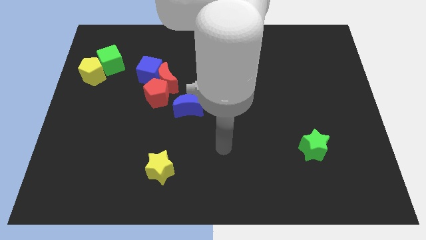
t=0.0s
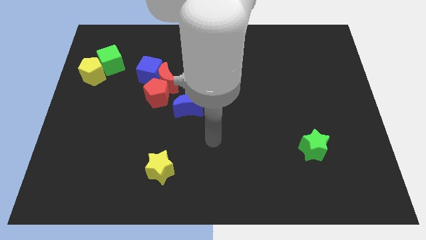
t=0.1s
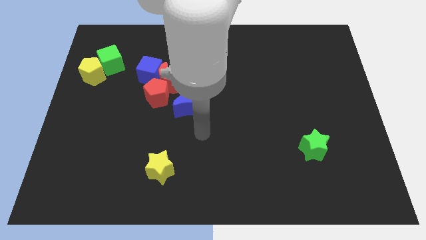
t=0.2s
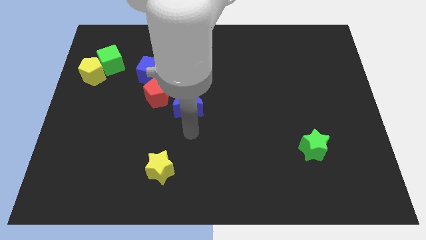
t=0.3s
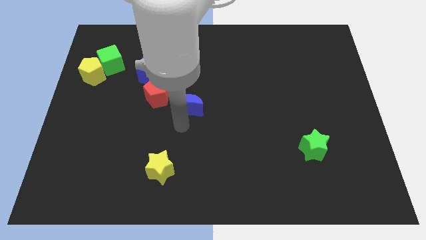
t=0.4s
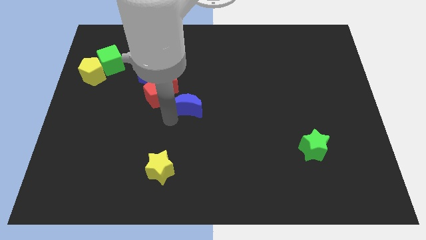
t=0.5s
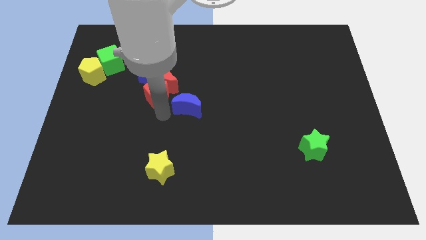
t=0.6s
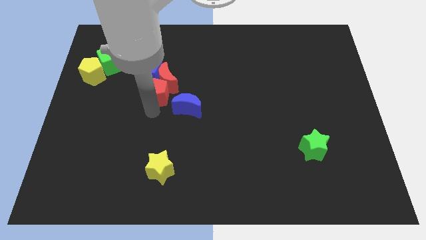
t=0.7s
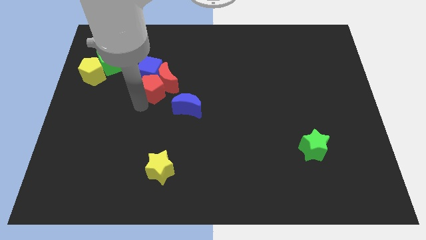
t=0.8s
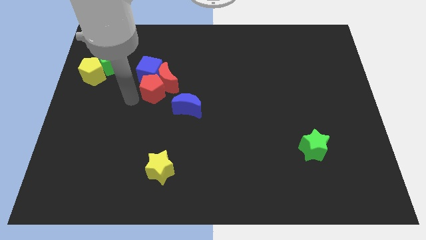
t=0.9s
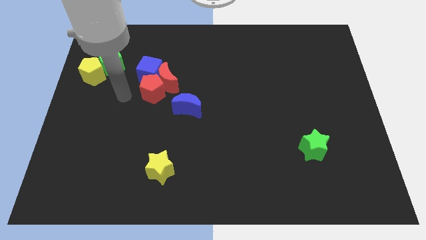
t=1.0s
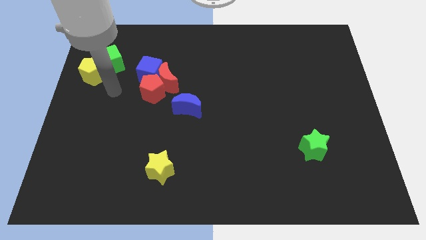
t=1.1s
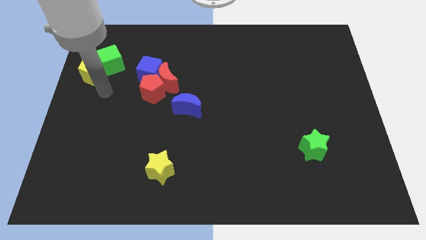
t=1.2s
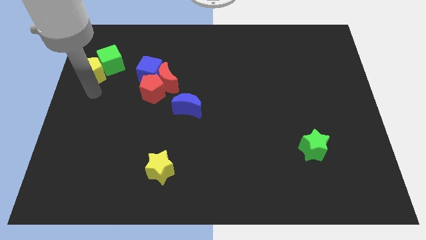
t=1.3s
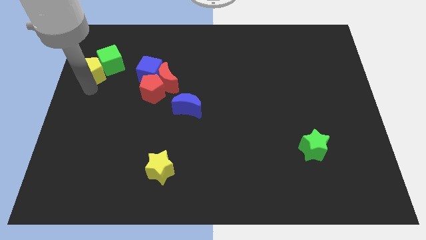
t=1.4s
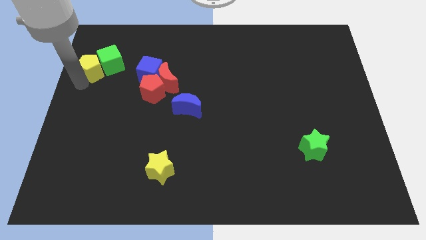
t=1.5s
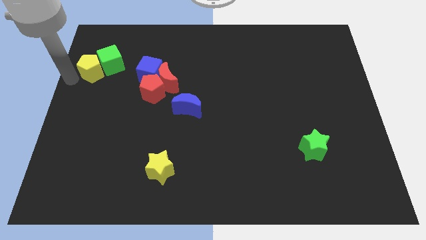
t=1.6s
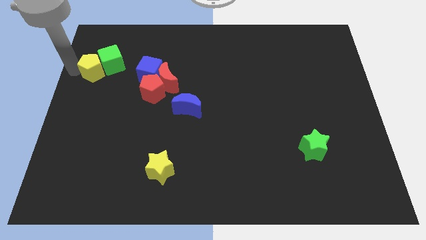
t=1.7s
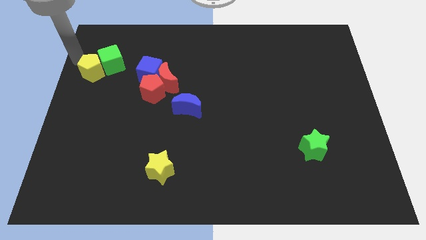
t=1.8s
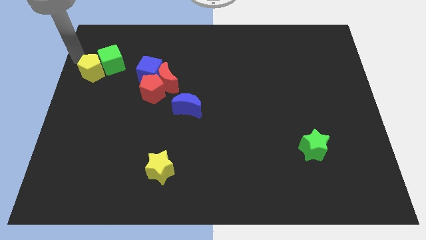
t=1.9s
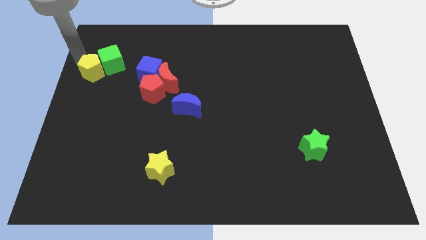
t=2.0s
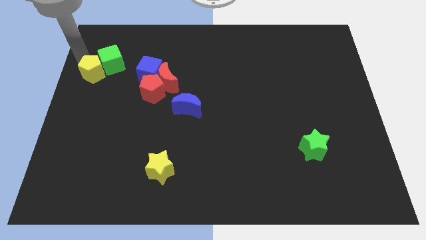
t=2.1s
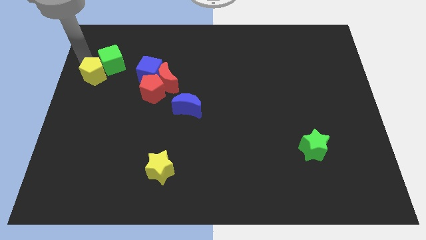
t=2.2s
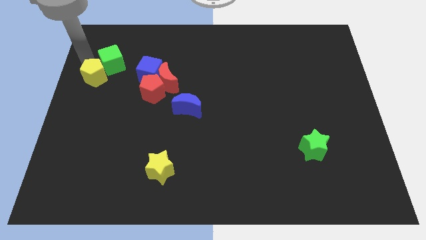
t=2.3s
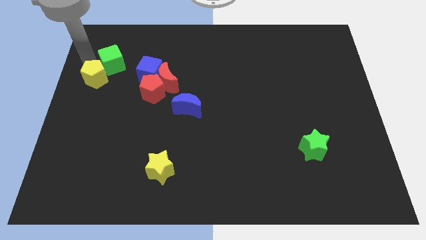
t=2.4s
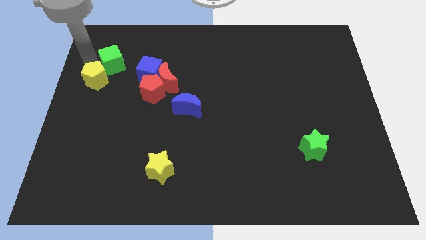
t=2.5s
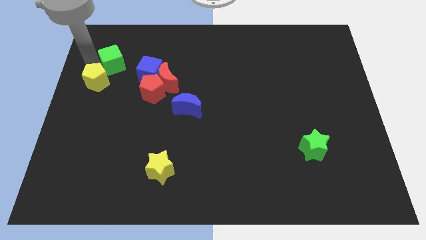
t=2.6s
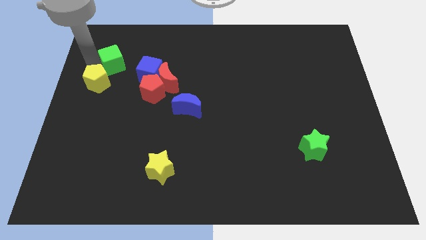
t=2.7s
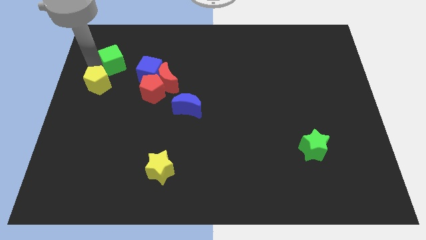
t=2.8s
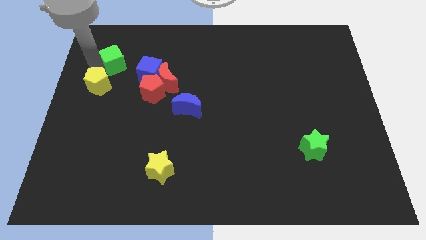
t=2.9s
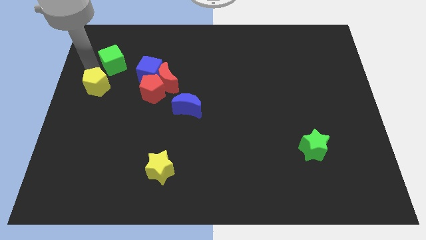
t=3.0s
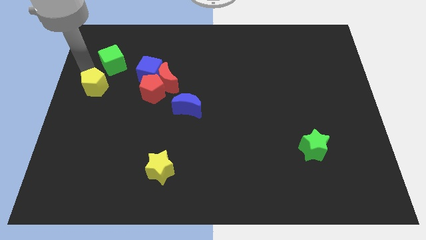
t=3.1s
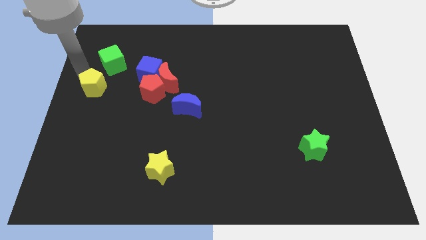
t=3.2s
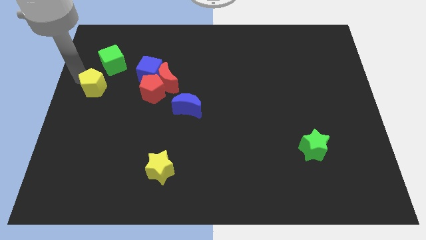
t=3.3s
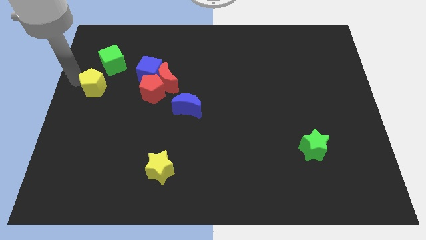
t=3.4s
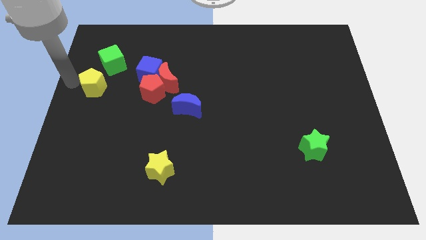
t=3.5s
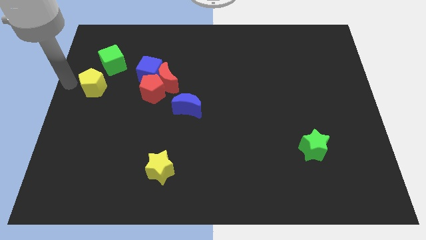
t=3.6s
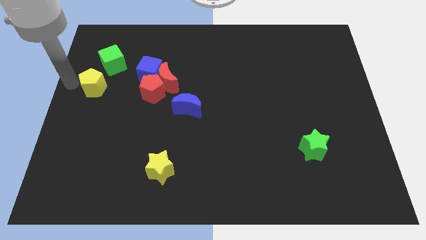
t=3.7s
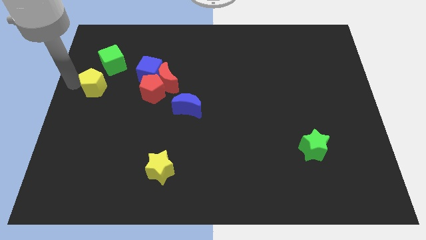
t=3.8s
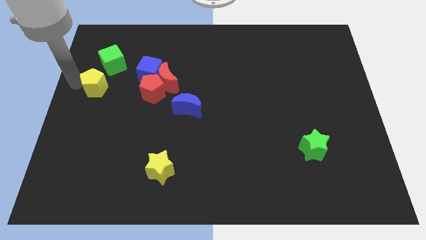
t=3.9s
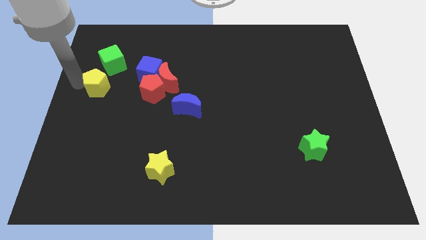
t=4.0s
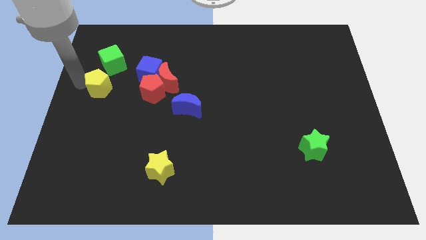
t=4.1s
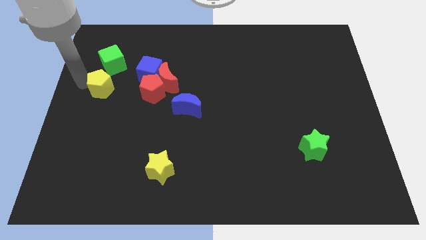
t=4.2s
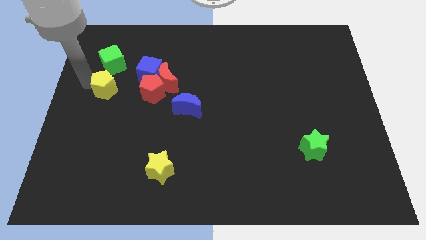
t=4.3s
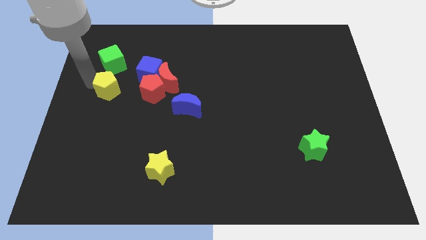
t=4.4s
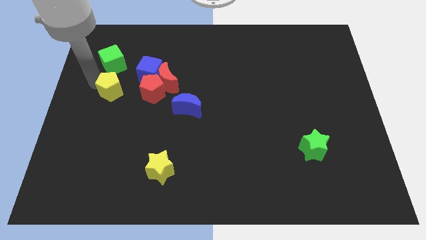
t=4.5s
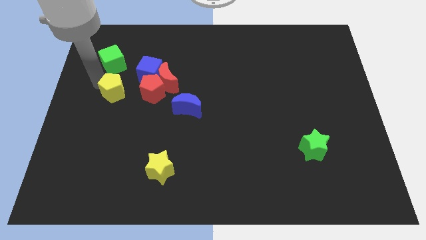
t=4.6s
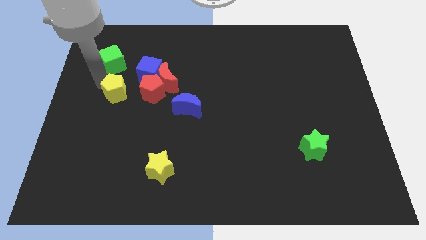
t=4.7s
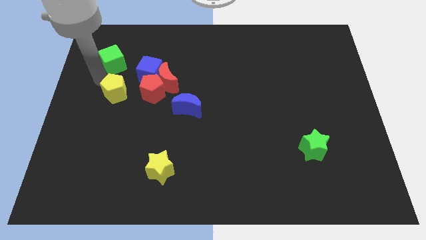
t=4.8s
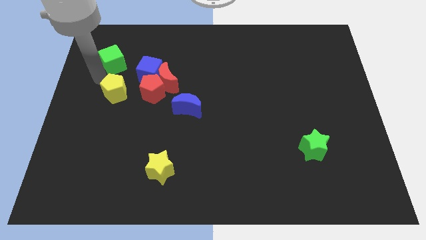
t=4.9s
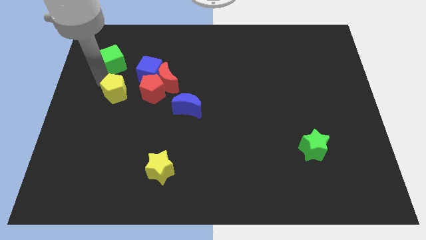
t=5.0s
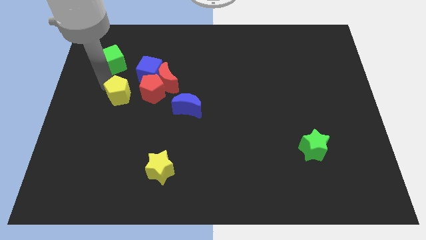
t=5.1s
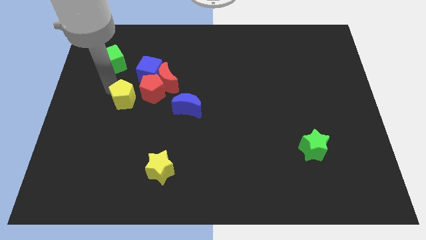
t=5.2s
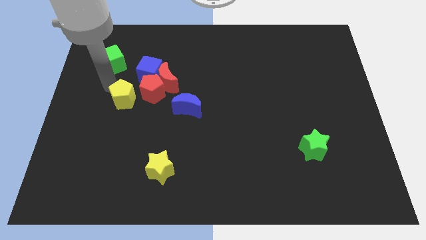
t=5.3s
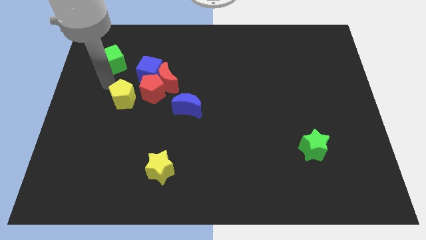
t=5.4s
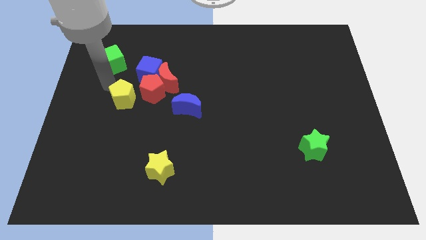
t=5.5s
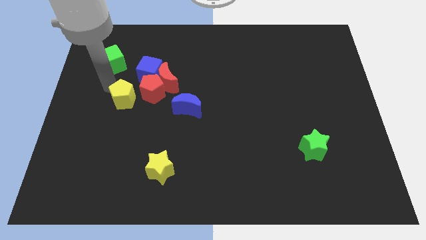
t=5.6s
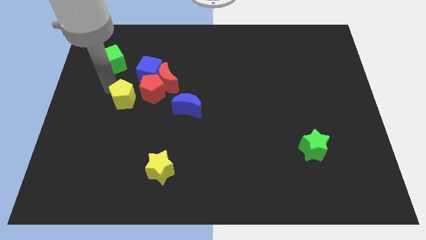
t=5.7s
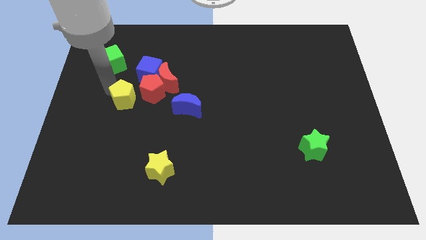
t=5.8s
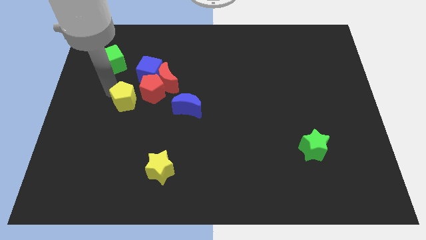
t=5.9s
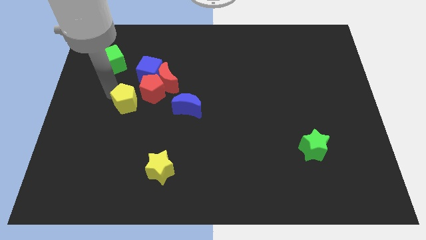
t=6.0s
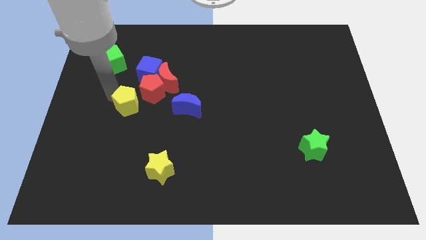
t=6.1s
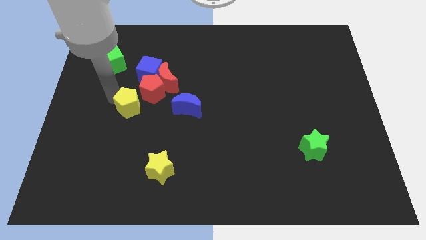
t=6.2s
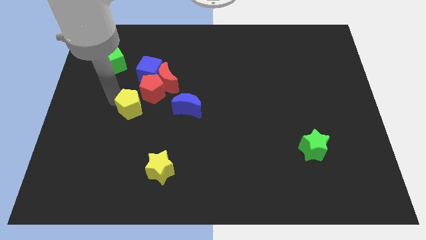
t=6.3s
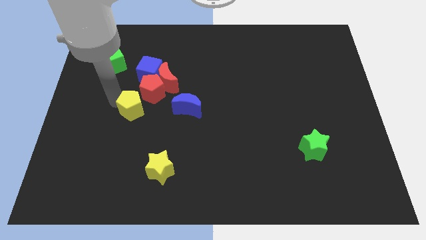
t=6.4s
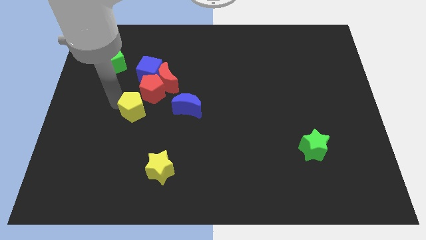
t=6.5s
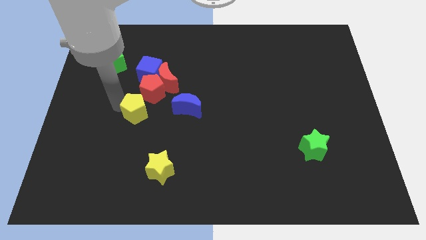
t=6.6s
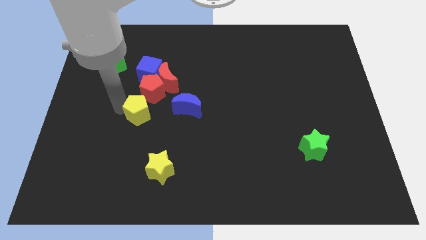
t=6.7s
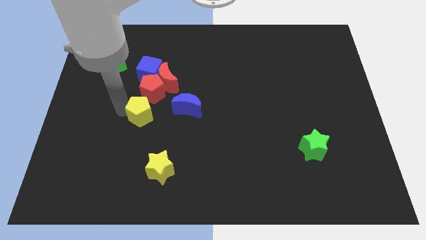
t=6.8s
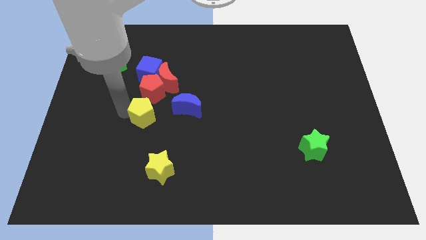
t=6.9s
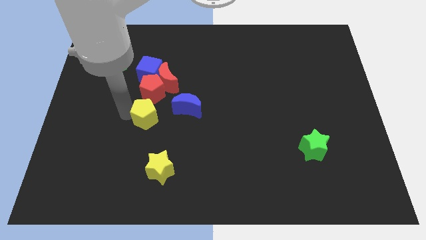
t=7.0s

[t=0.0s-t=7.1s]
slide the yellow pentagon to the bottom left side of the blue moon

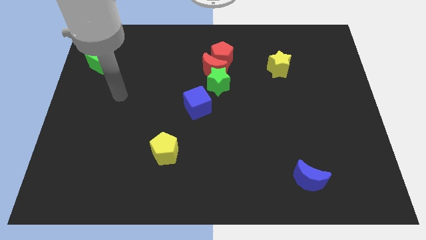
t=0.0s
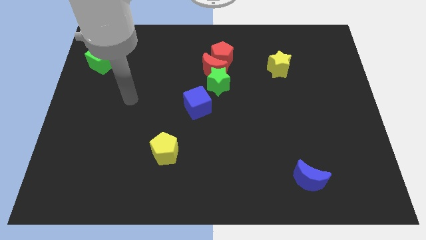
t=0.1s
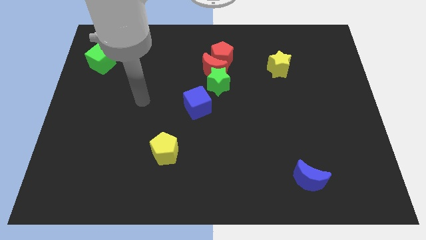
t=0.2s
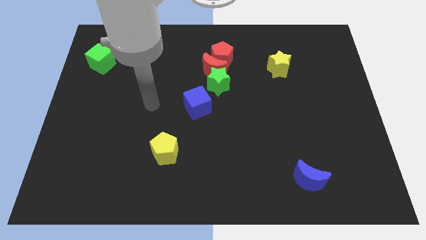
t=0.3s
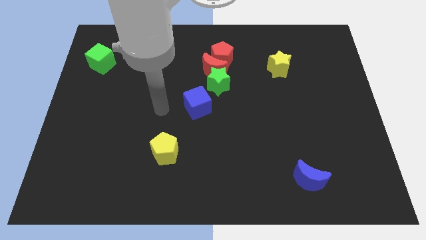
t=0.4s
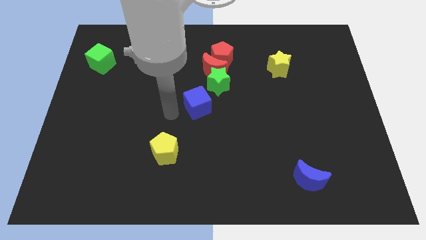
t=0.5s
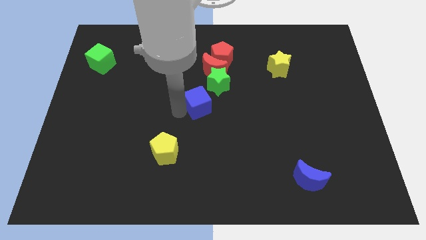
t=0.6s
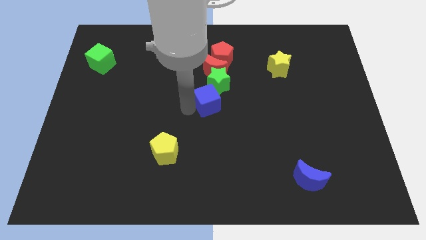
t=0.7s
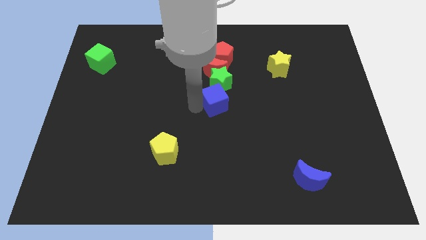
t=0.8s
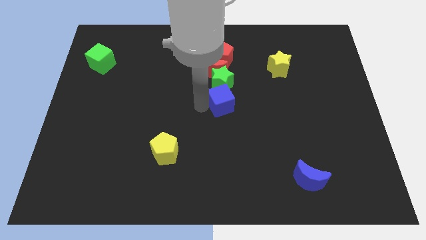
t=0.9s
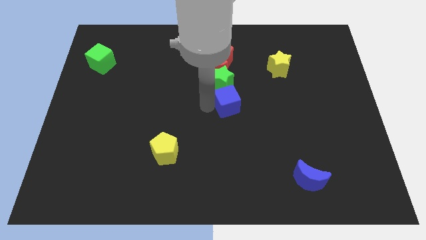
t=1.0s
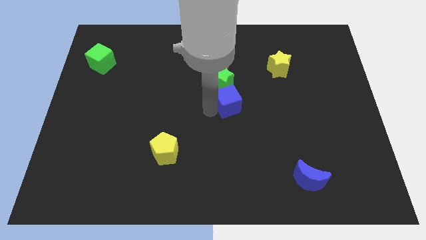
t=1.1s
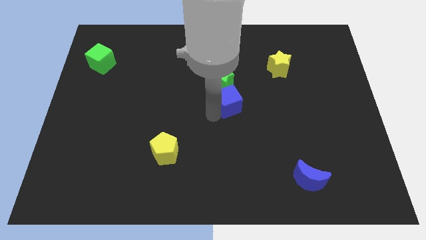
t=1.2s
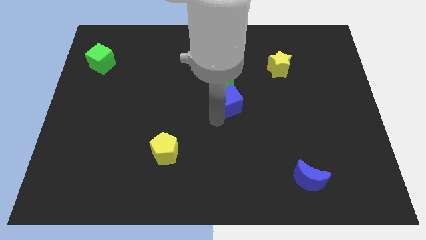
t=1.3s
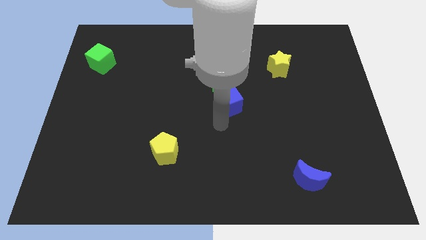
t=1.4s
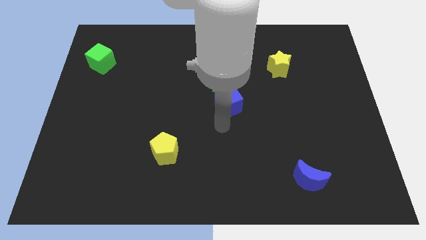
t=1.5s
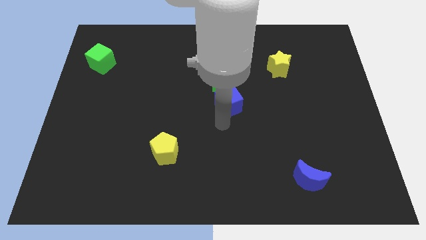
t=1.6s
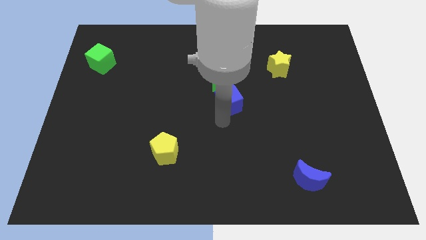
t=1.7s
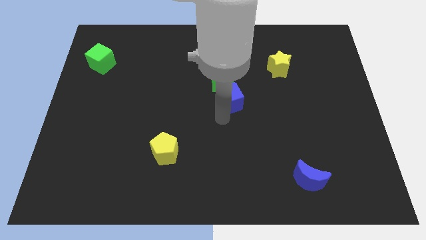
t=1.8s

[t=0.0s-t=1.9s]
push the blue cube to the bottom right of the red moon
